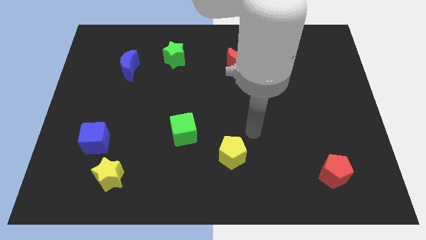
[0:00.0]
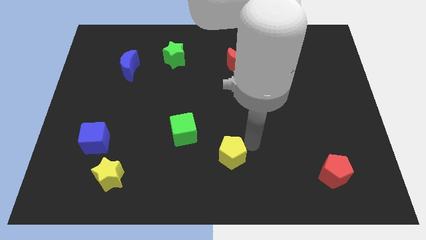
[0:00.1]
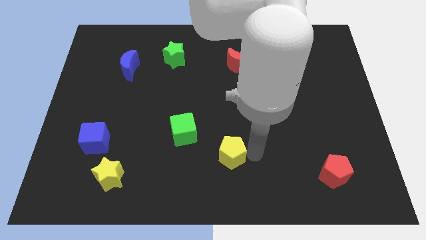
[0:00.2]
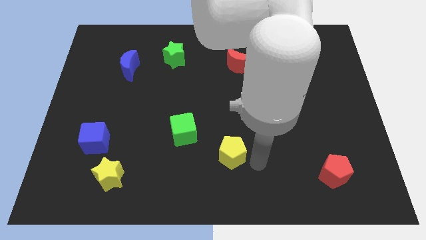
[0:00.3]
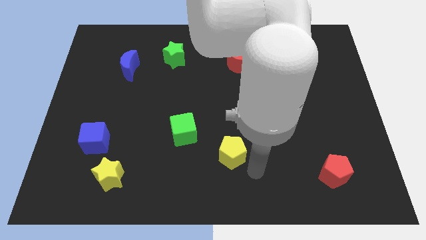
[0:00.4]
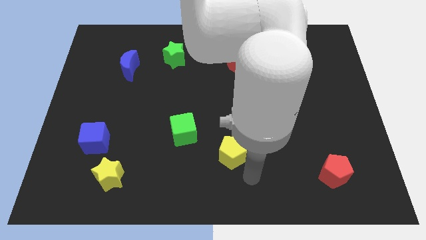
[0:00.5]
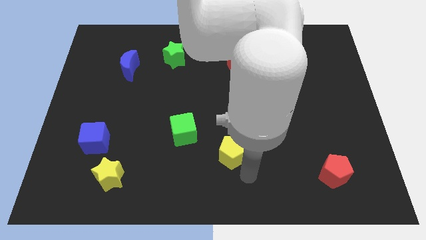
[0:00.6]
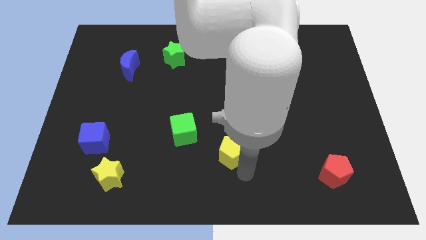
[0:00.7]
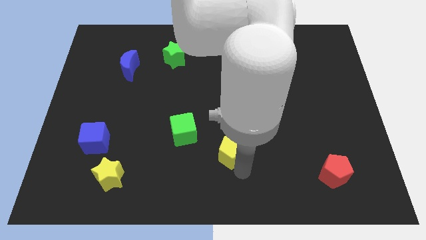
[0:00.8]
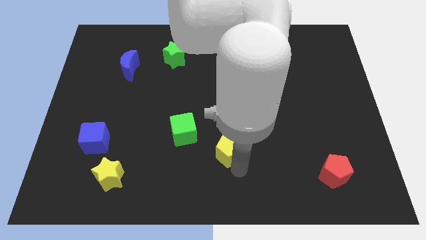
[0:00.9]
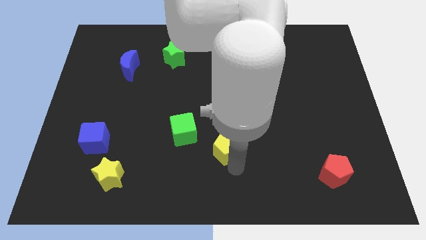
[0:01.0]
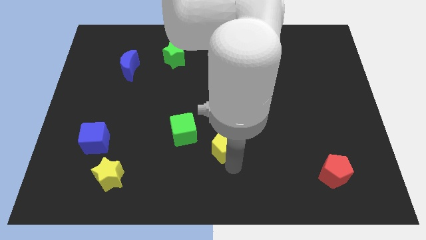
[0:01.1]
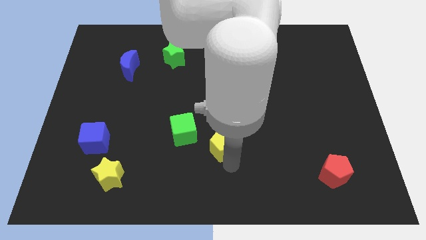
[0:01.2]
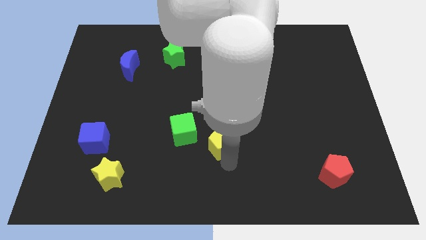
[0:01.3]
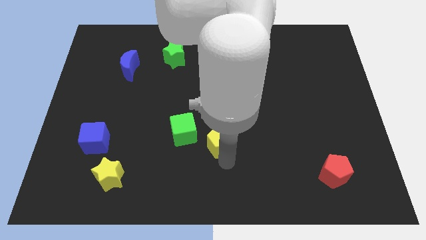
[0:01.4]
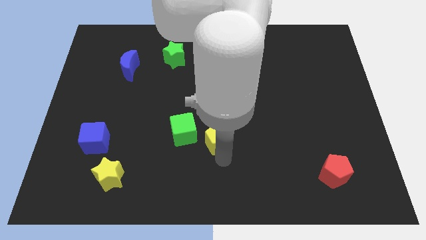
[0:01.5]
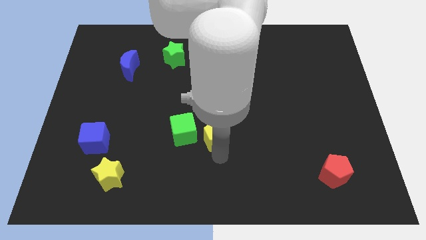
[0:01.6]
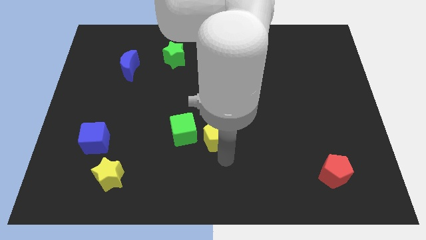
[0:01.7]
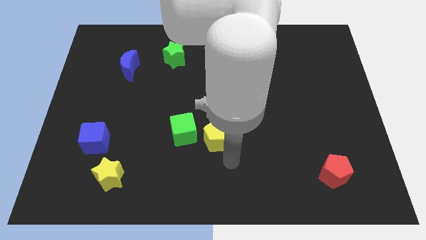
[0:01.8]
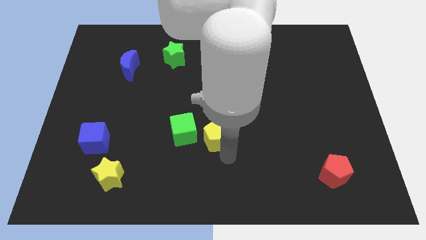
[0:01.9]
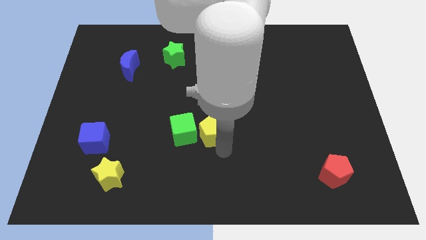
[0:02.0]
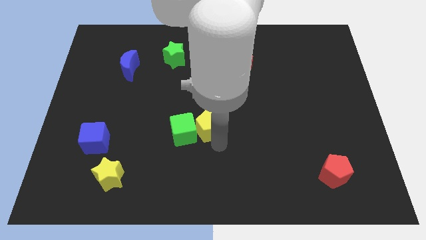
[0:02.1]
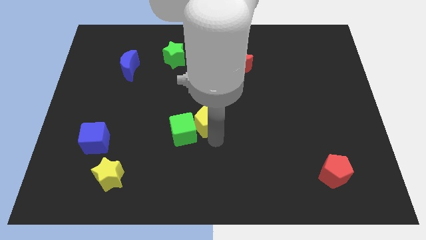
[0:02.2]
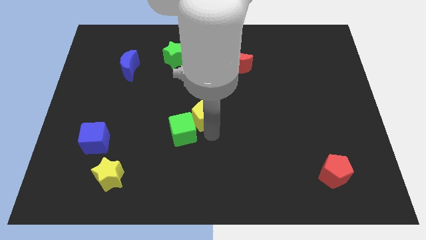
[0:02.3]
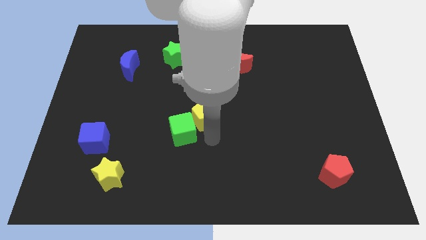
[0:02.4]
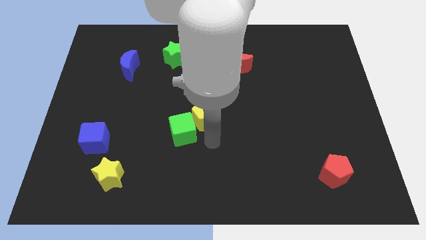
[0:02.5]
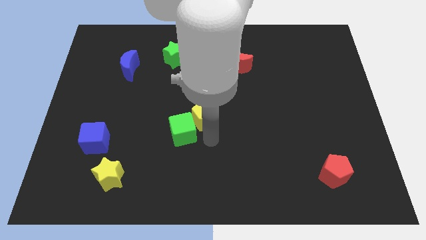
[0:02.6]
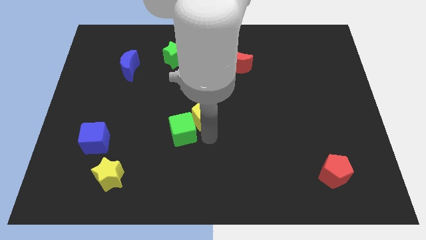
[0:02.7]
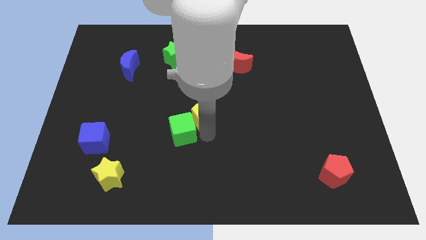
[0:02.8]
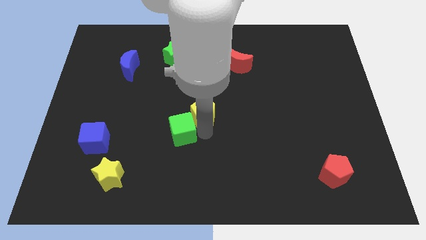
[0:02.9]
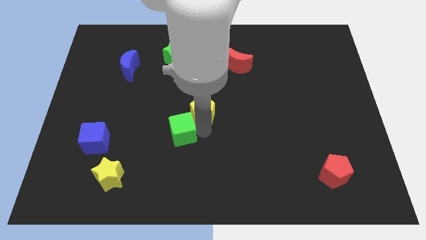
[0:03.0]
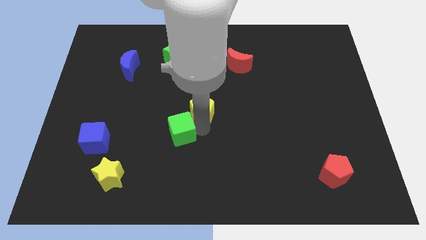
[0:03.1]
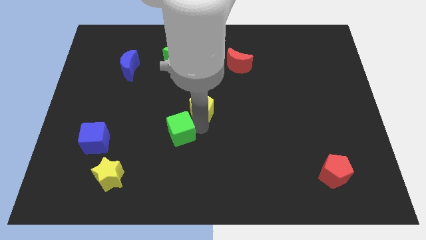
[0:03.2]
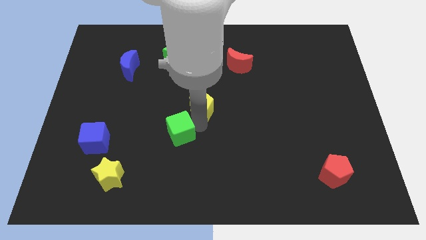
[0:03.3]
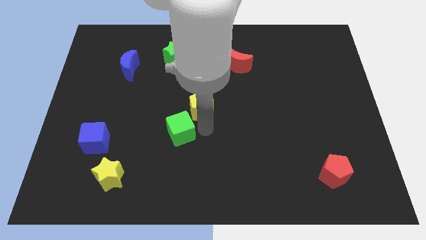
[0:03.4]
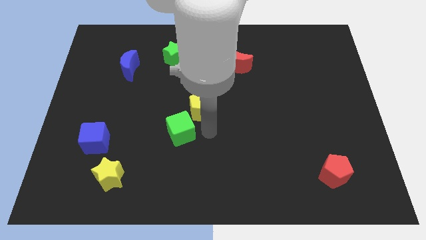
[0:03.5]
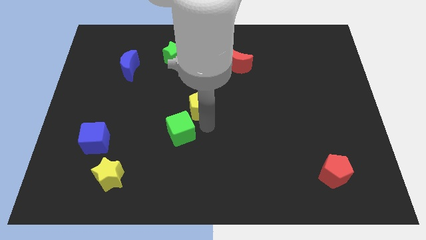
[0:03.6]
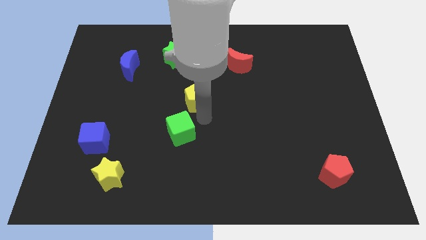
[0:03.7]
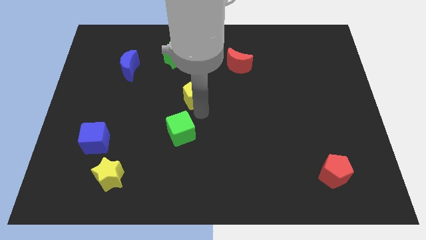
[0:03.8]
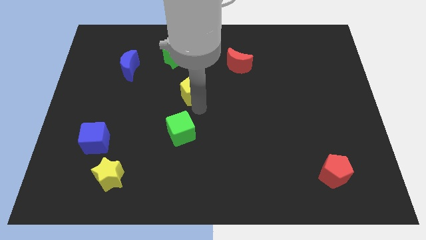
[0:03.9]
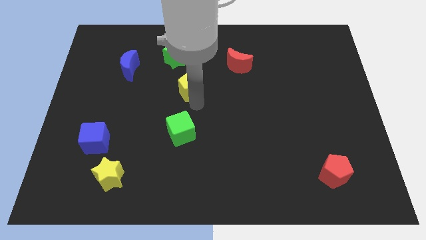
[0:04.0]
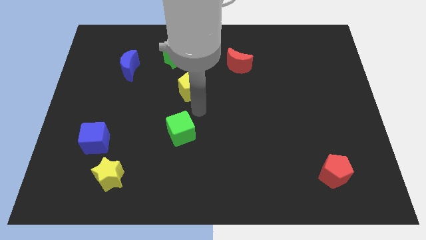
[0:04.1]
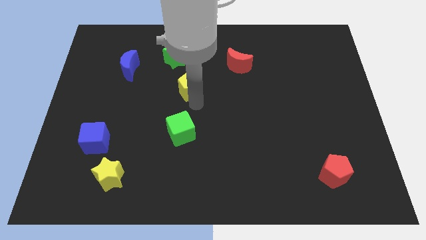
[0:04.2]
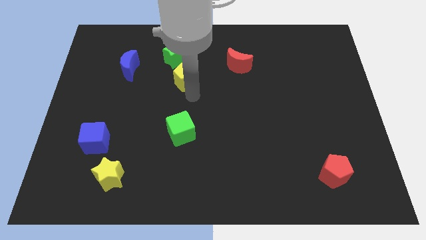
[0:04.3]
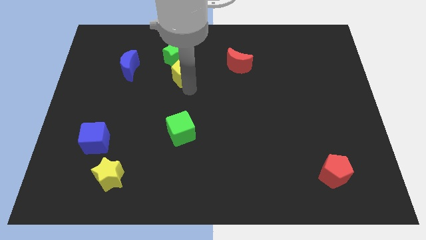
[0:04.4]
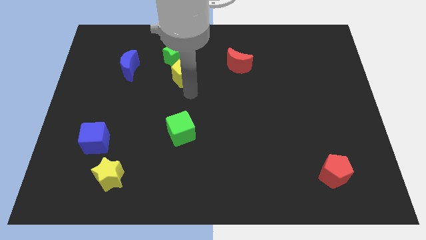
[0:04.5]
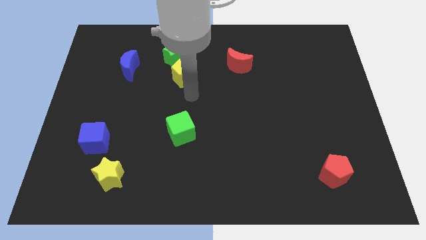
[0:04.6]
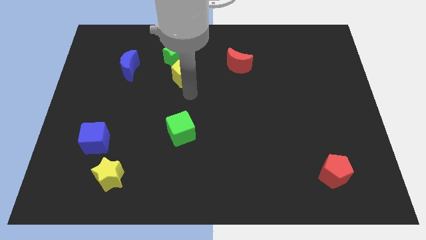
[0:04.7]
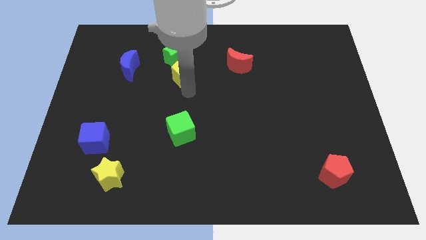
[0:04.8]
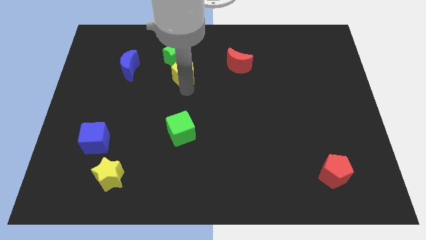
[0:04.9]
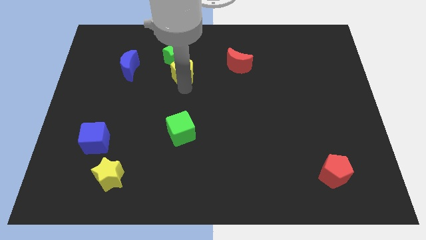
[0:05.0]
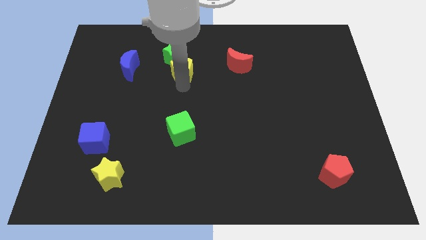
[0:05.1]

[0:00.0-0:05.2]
push the yellow pentagon towards the green star

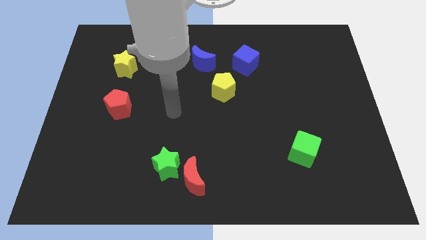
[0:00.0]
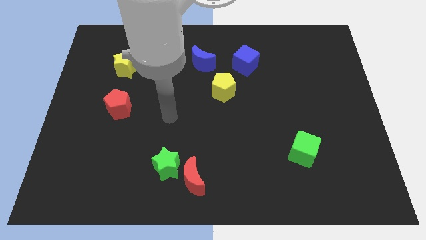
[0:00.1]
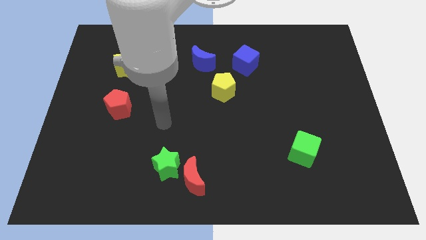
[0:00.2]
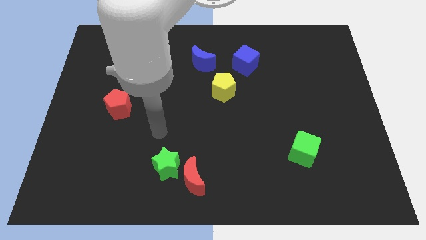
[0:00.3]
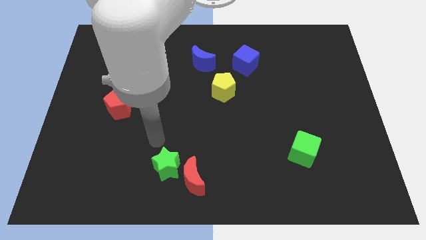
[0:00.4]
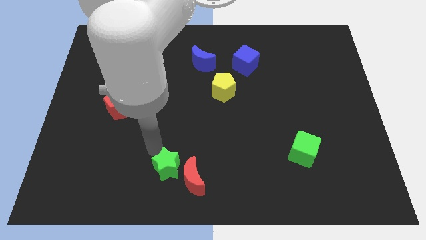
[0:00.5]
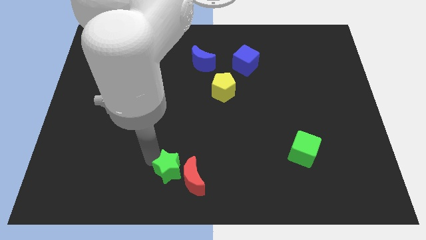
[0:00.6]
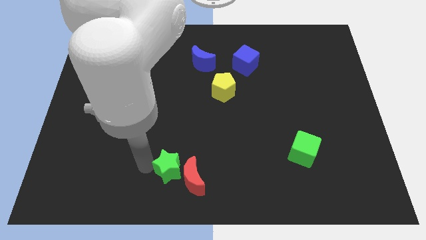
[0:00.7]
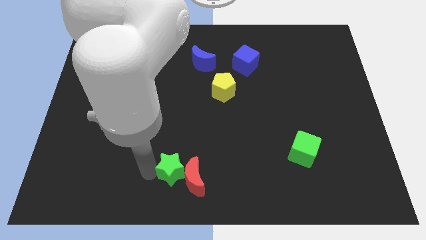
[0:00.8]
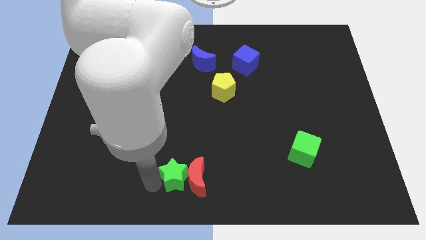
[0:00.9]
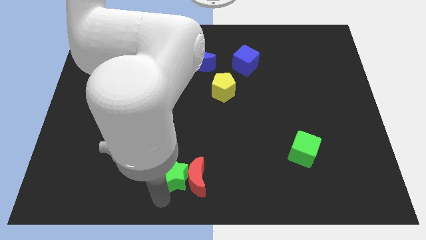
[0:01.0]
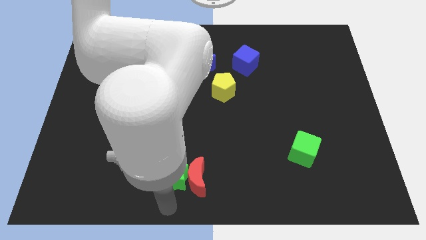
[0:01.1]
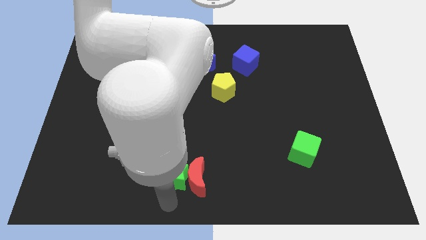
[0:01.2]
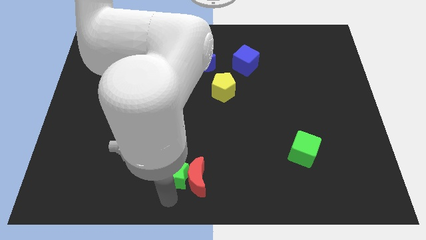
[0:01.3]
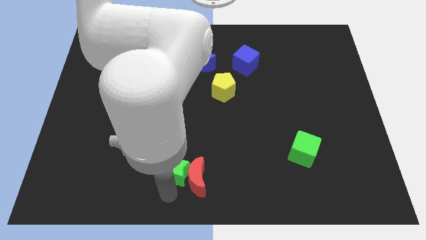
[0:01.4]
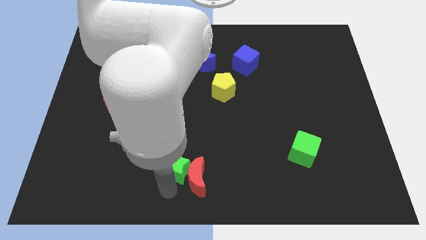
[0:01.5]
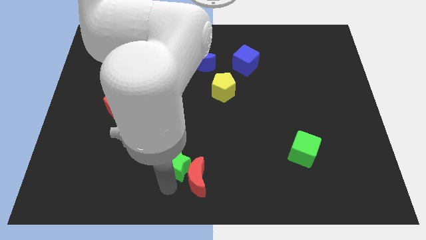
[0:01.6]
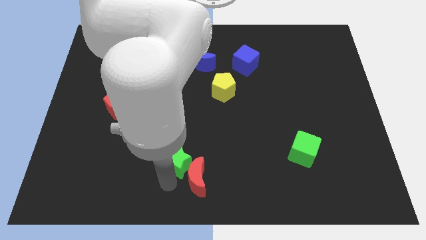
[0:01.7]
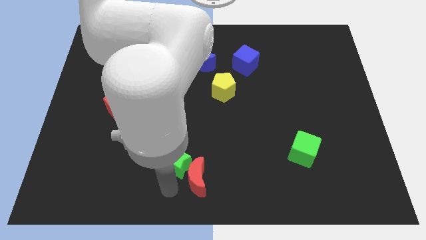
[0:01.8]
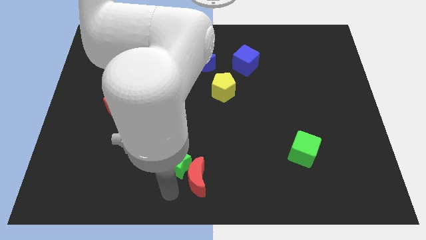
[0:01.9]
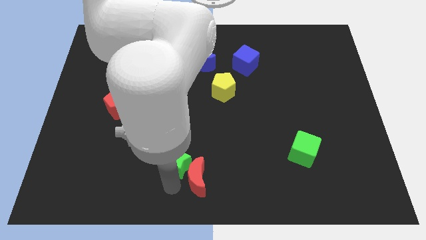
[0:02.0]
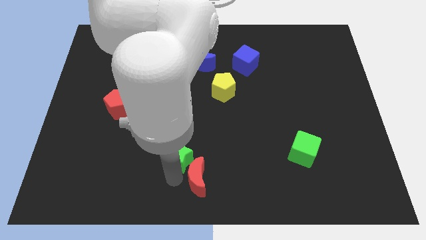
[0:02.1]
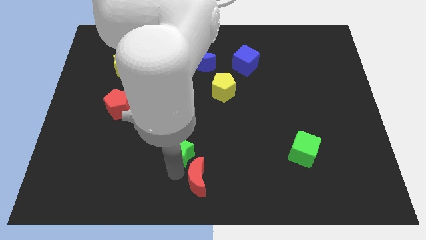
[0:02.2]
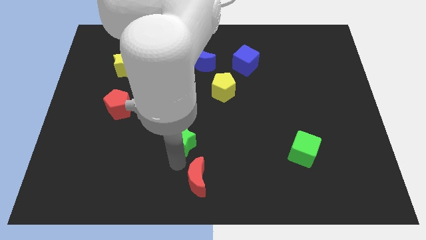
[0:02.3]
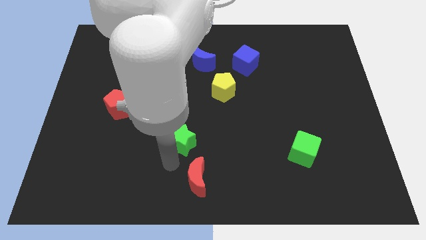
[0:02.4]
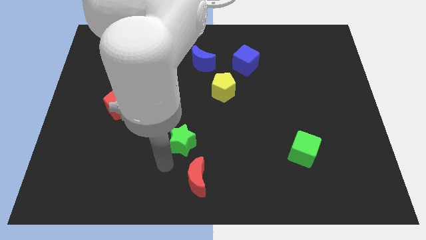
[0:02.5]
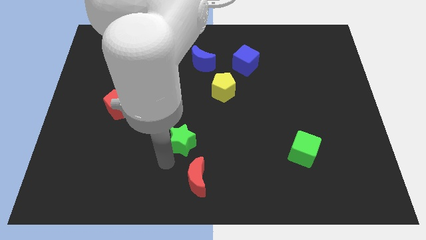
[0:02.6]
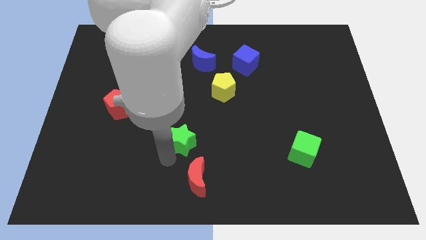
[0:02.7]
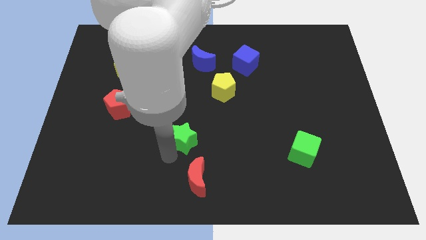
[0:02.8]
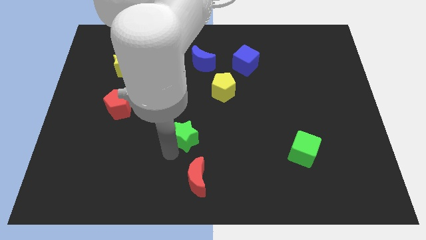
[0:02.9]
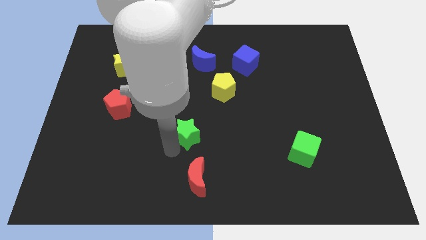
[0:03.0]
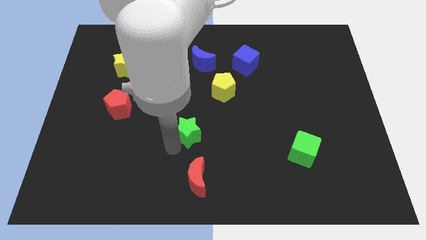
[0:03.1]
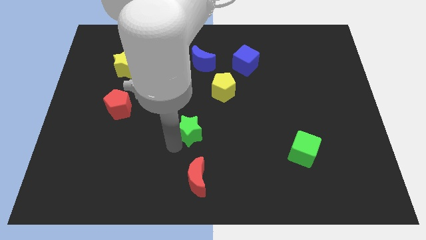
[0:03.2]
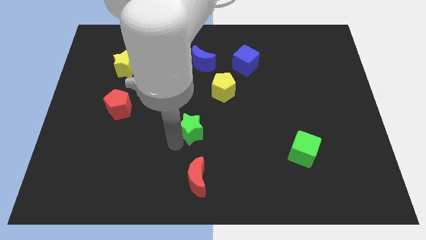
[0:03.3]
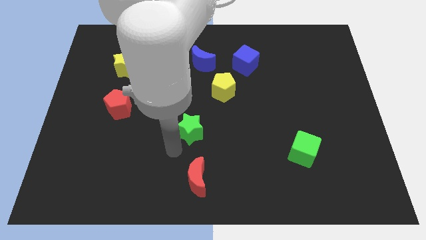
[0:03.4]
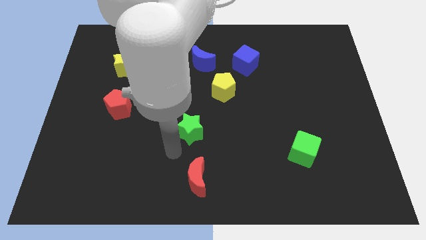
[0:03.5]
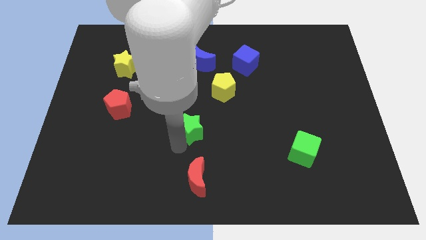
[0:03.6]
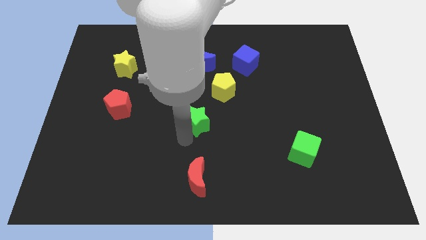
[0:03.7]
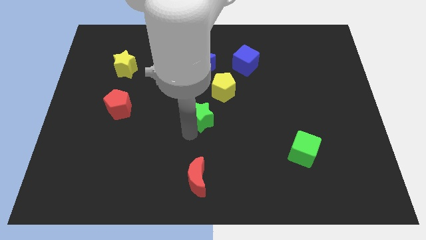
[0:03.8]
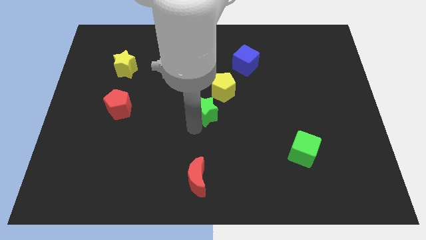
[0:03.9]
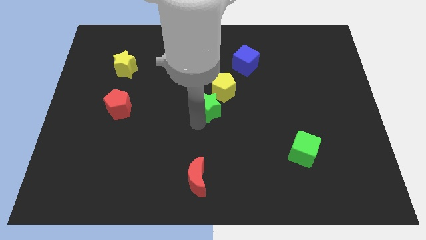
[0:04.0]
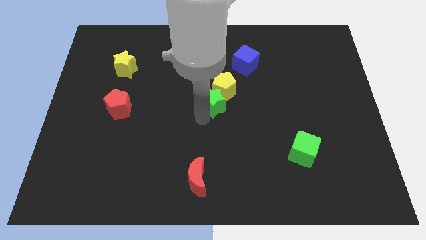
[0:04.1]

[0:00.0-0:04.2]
slide the green star close to the yellow pentagon
